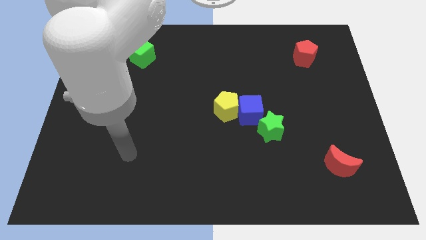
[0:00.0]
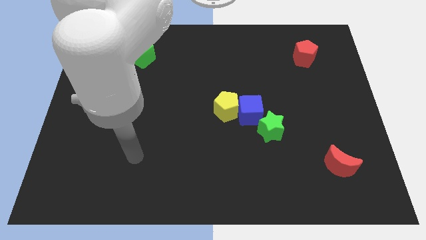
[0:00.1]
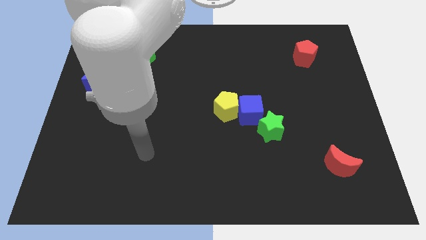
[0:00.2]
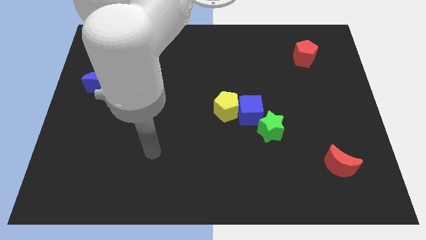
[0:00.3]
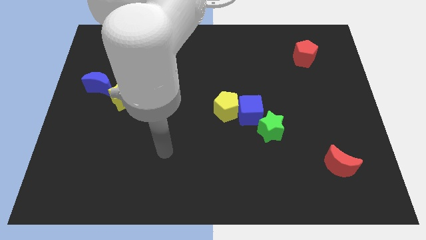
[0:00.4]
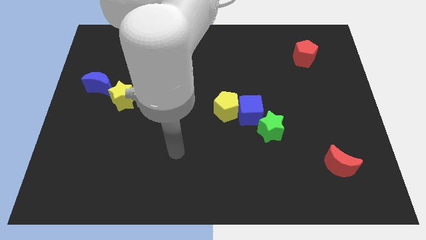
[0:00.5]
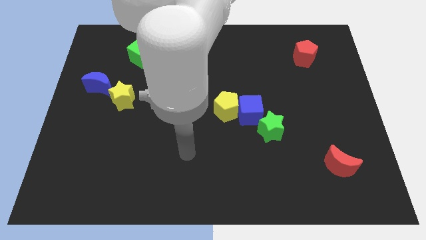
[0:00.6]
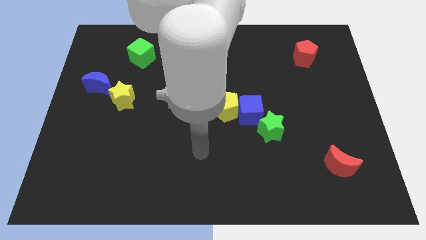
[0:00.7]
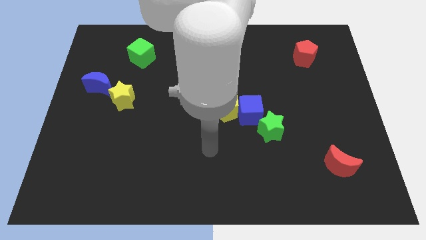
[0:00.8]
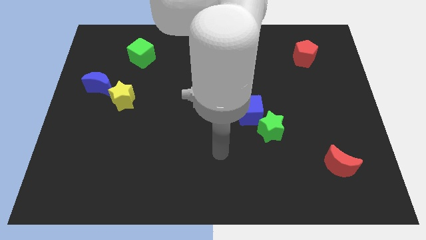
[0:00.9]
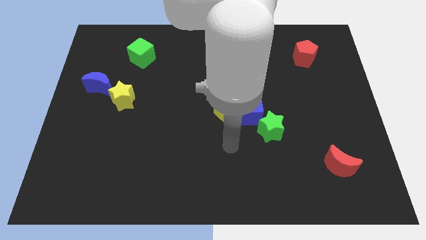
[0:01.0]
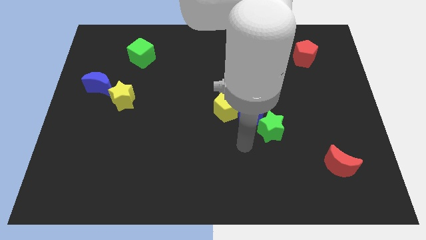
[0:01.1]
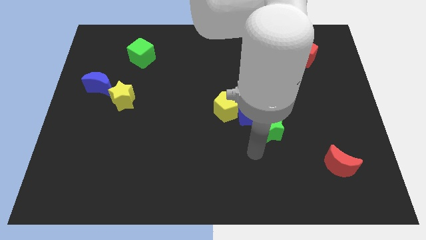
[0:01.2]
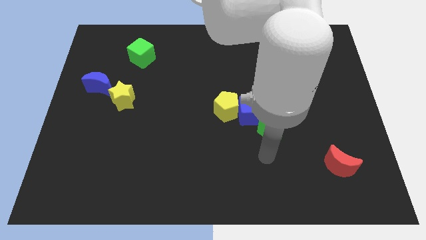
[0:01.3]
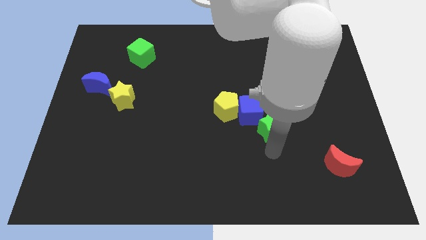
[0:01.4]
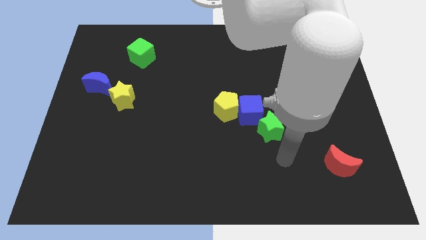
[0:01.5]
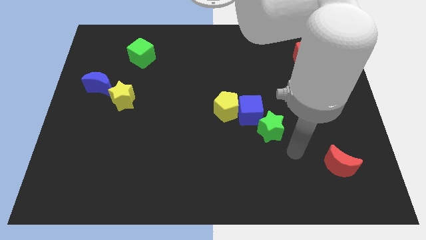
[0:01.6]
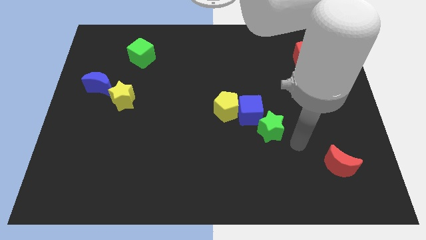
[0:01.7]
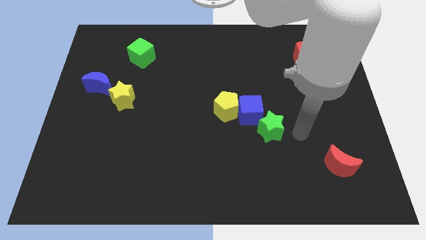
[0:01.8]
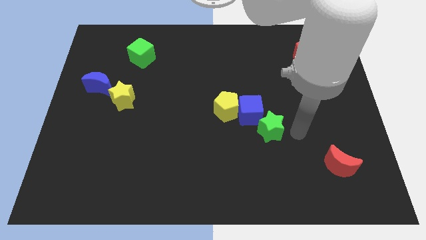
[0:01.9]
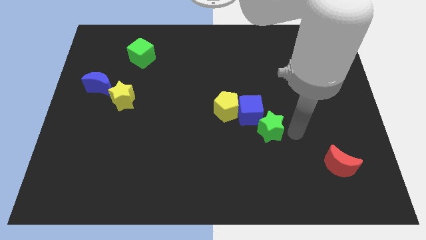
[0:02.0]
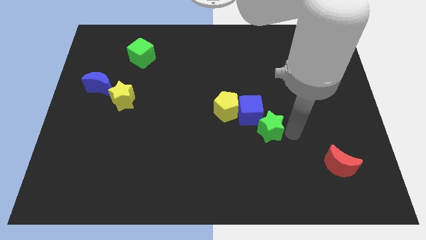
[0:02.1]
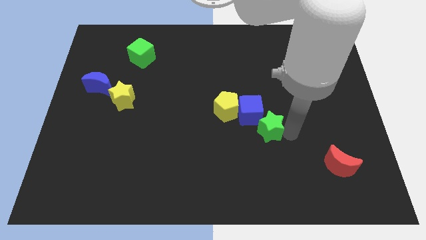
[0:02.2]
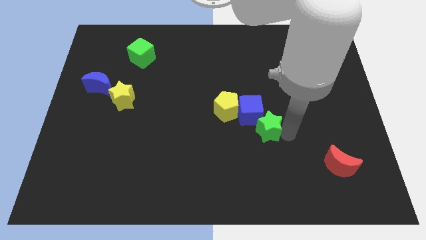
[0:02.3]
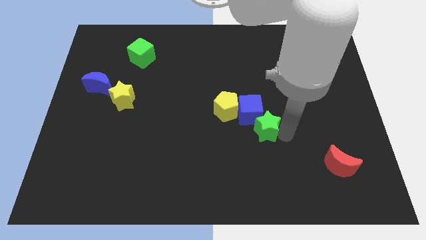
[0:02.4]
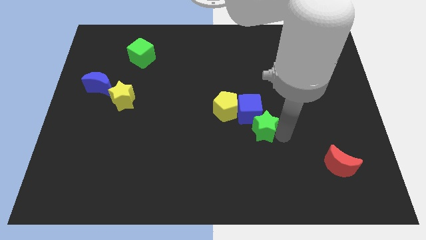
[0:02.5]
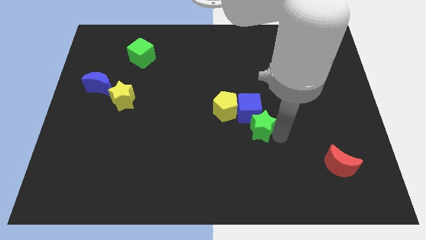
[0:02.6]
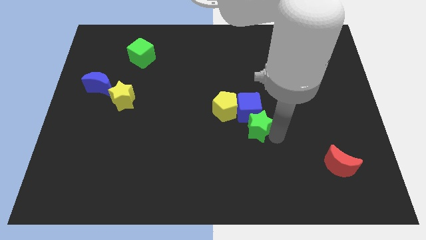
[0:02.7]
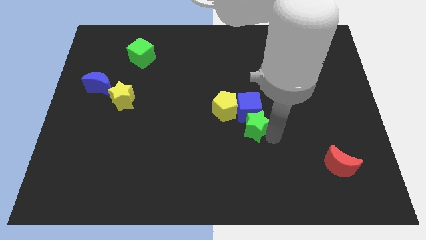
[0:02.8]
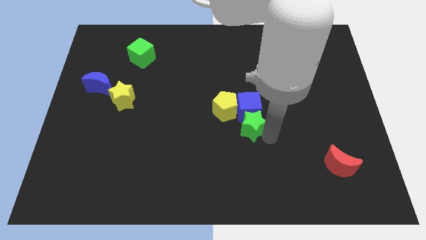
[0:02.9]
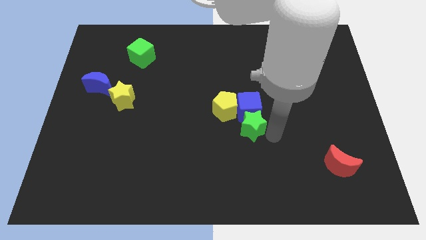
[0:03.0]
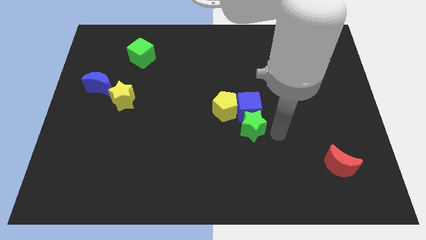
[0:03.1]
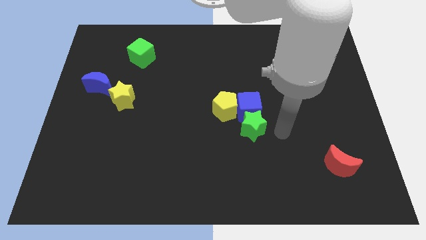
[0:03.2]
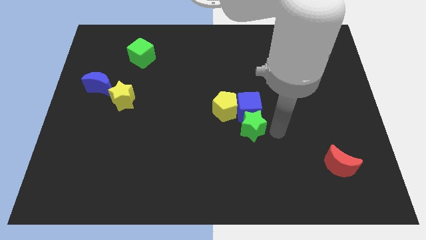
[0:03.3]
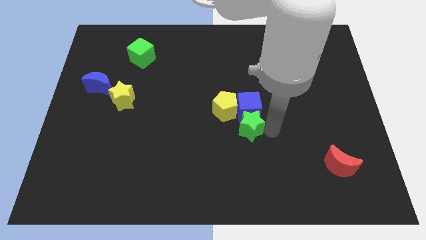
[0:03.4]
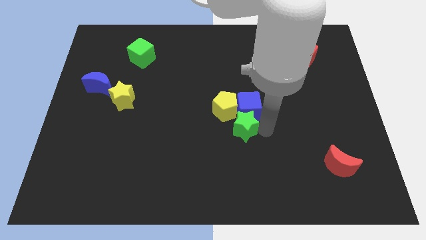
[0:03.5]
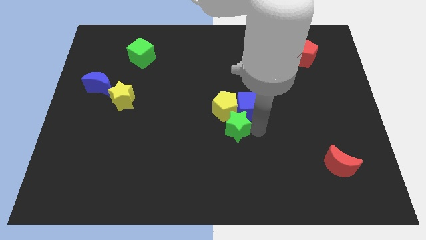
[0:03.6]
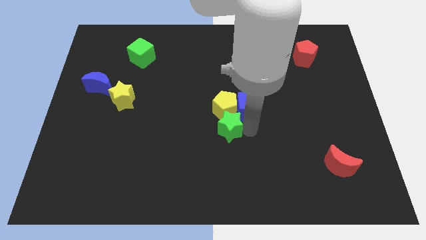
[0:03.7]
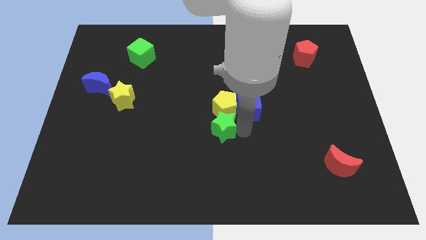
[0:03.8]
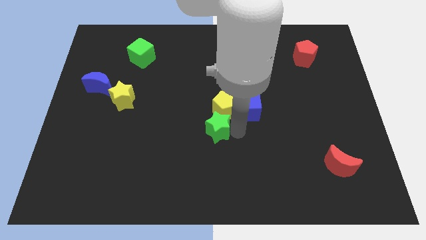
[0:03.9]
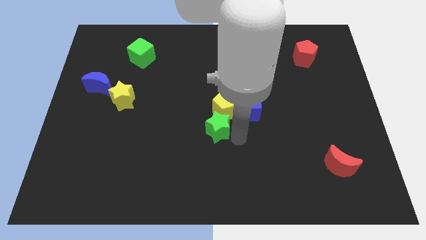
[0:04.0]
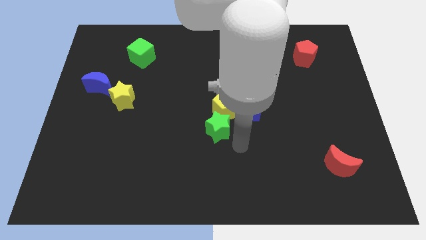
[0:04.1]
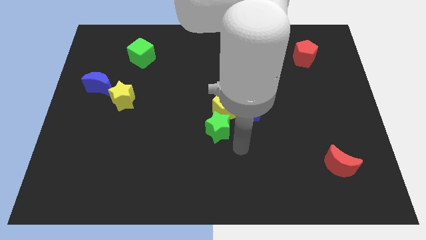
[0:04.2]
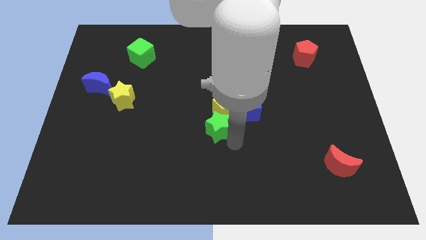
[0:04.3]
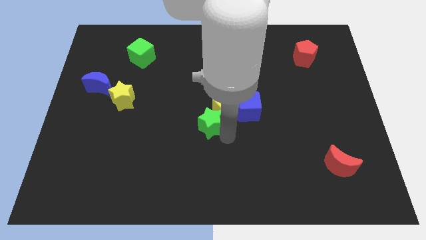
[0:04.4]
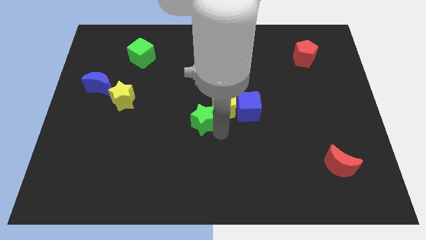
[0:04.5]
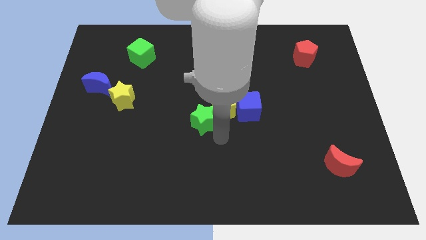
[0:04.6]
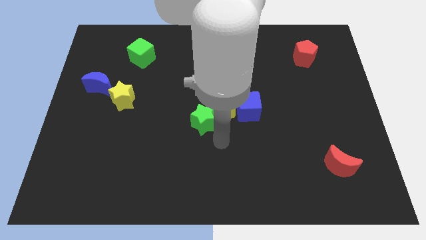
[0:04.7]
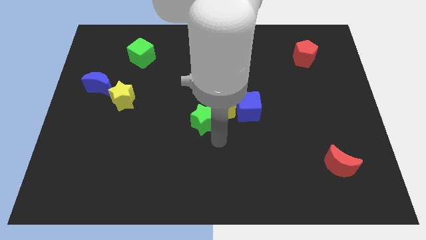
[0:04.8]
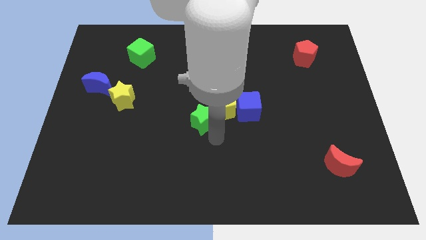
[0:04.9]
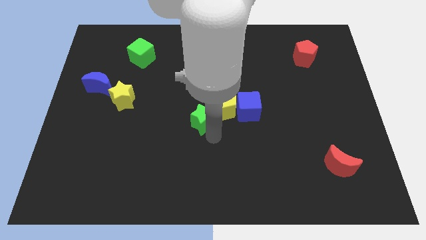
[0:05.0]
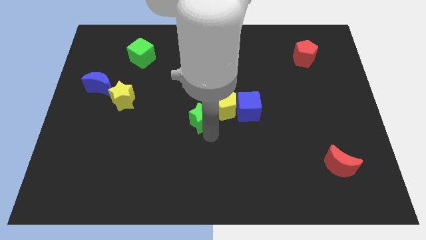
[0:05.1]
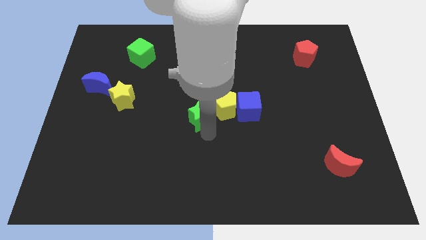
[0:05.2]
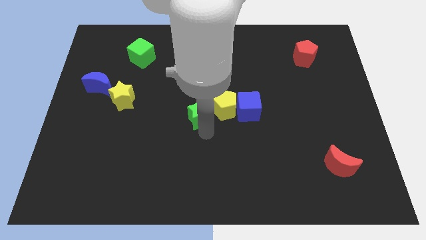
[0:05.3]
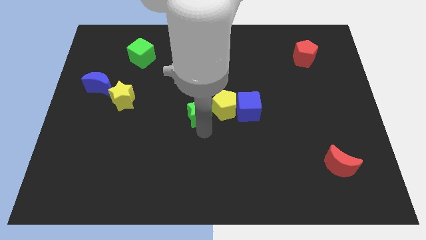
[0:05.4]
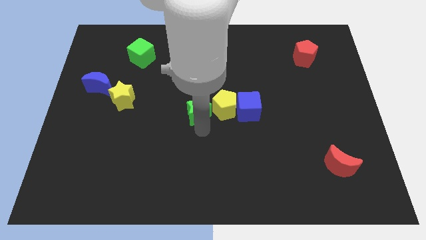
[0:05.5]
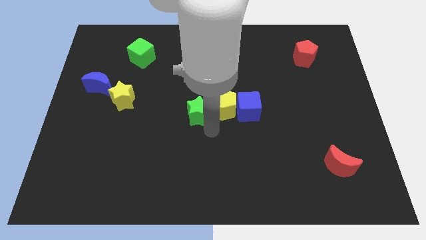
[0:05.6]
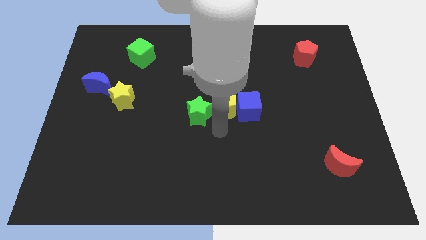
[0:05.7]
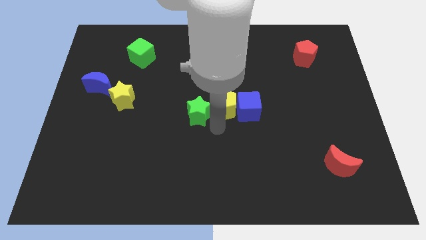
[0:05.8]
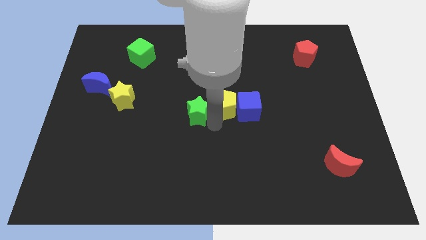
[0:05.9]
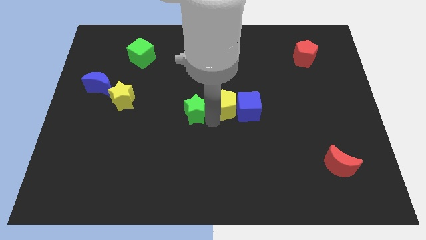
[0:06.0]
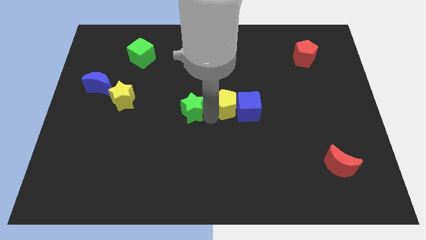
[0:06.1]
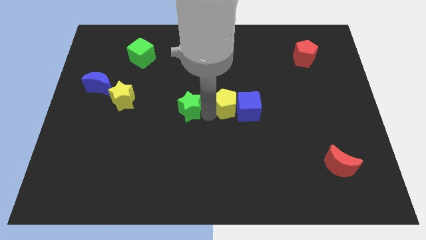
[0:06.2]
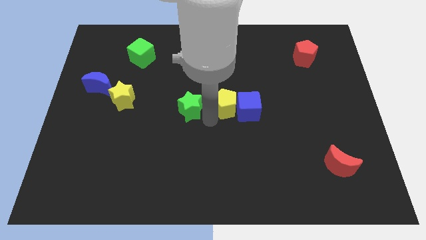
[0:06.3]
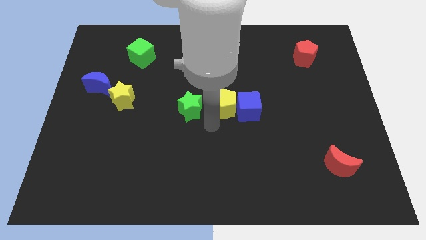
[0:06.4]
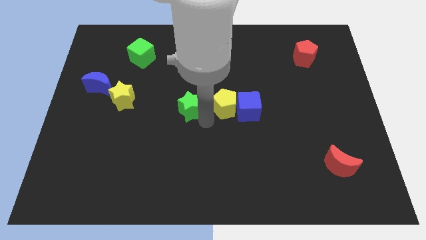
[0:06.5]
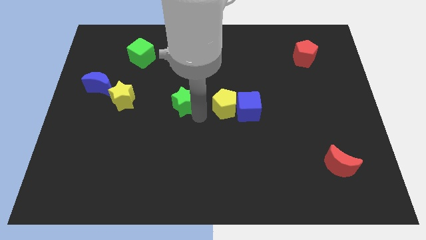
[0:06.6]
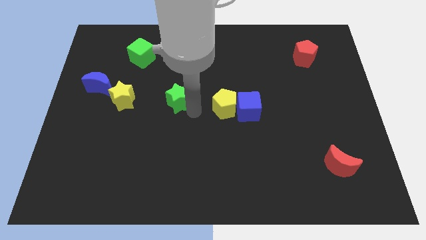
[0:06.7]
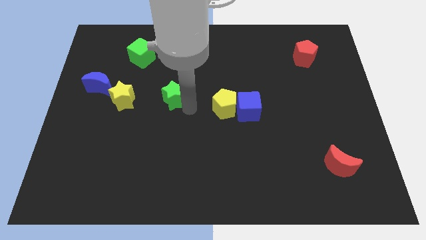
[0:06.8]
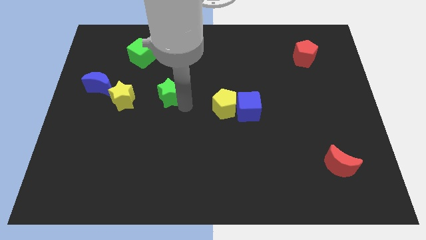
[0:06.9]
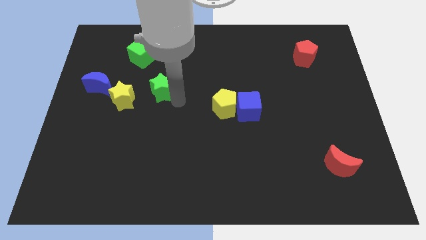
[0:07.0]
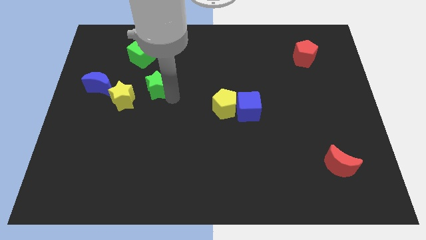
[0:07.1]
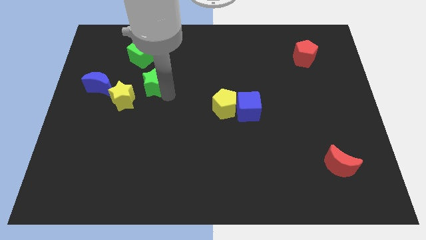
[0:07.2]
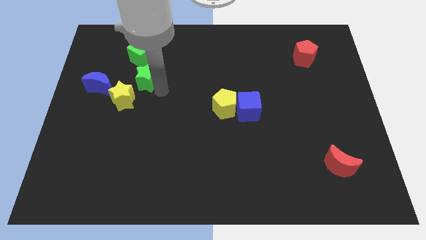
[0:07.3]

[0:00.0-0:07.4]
put the green star above the yellow star
